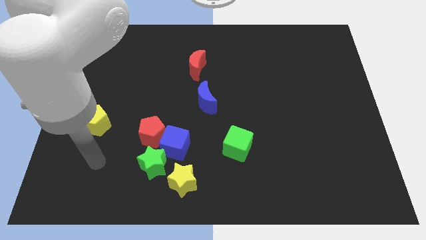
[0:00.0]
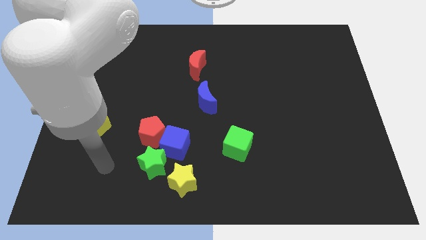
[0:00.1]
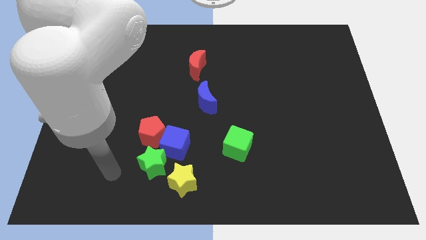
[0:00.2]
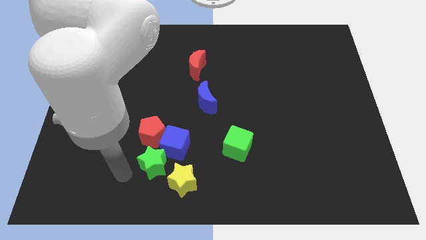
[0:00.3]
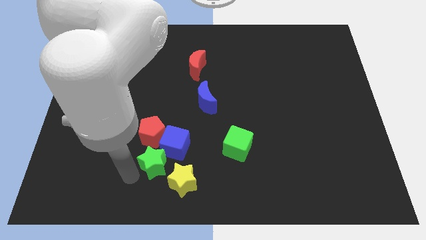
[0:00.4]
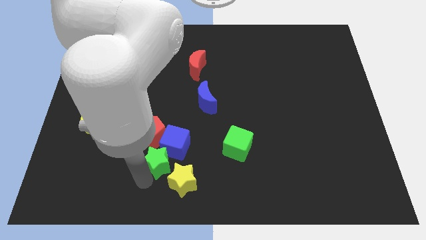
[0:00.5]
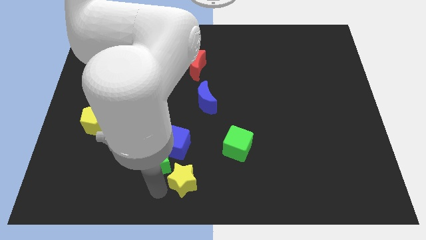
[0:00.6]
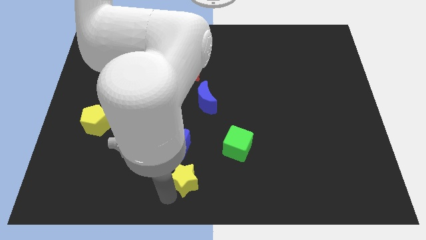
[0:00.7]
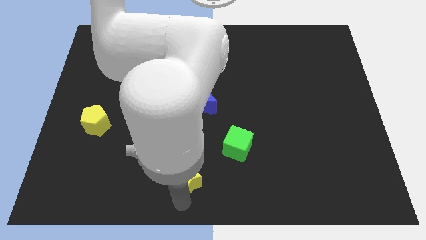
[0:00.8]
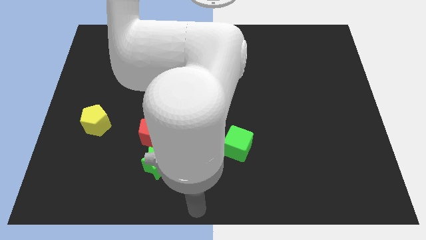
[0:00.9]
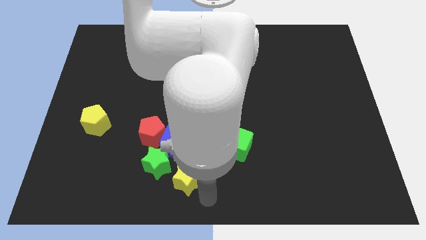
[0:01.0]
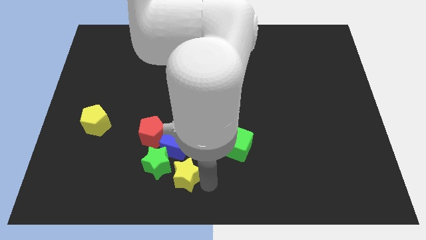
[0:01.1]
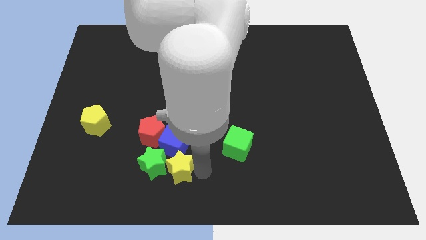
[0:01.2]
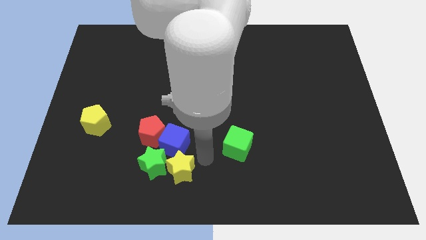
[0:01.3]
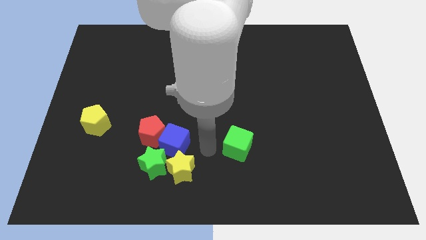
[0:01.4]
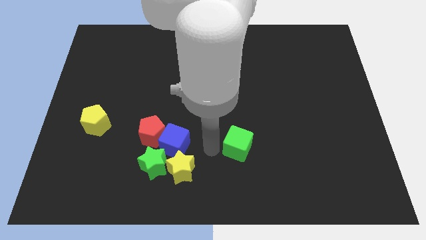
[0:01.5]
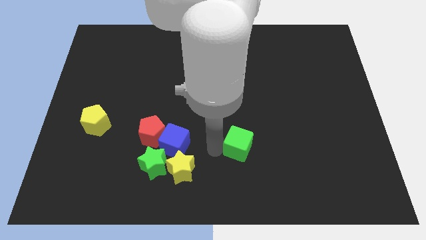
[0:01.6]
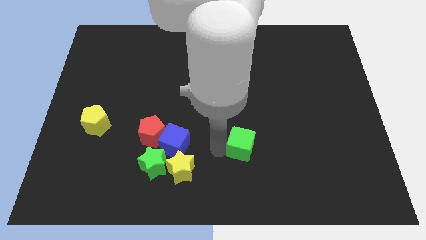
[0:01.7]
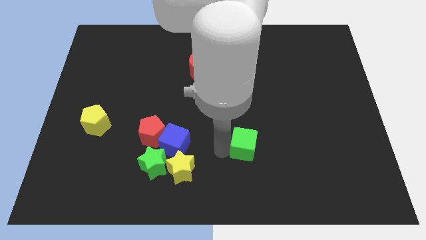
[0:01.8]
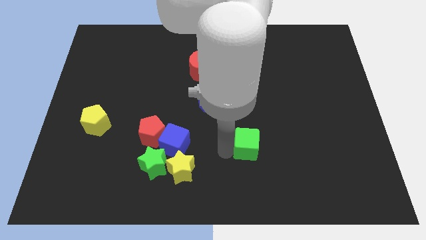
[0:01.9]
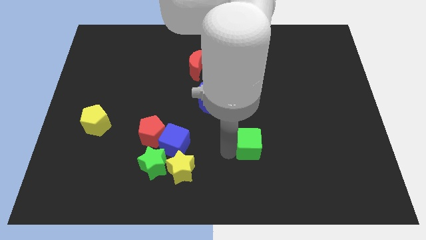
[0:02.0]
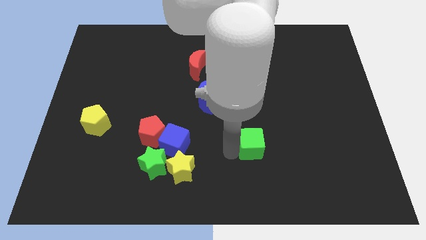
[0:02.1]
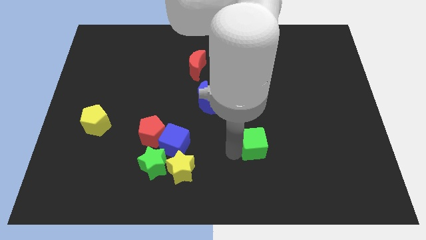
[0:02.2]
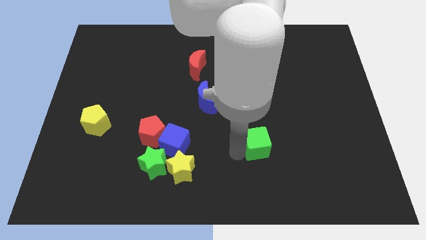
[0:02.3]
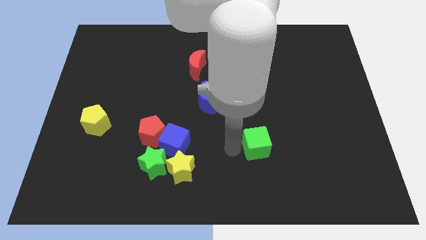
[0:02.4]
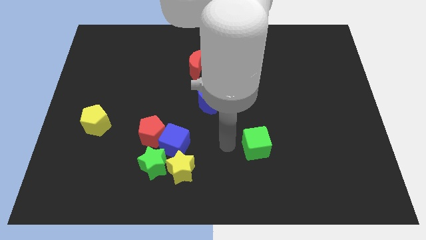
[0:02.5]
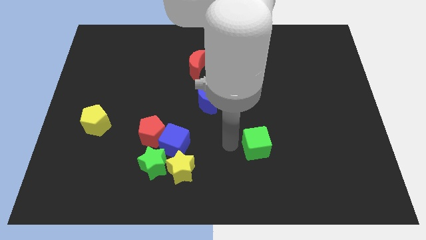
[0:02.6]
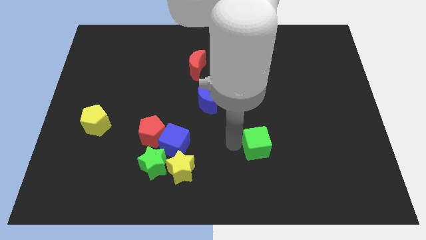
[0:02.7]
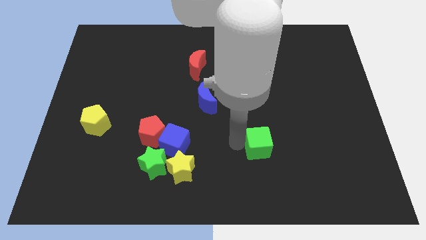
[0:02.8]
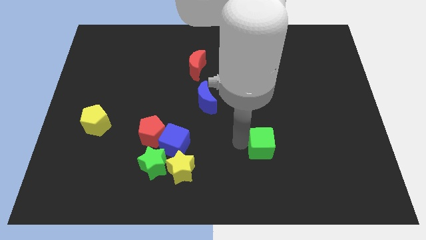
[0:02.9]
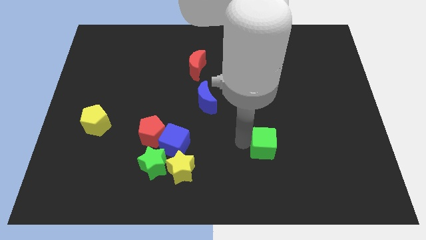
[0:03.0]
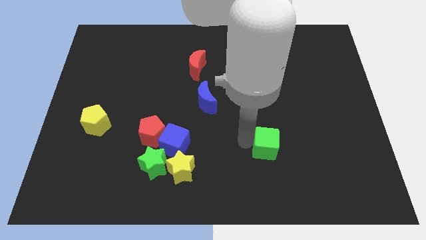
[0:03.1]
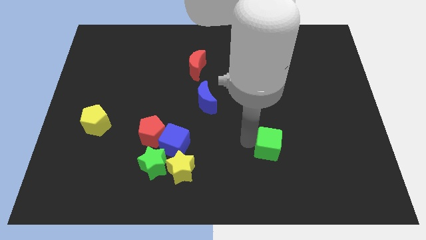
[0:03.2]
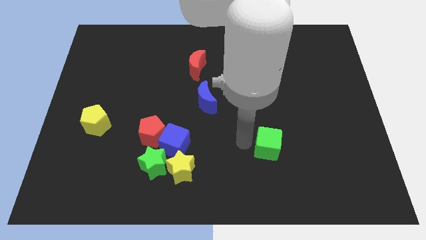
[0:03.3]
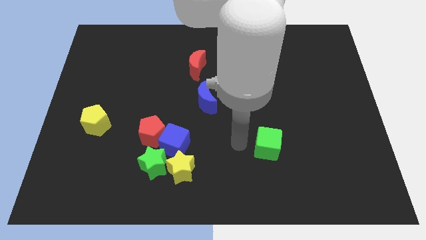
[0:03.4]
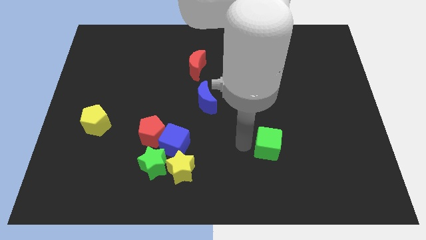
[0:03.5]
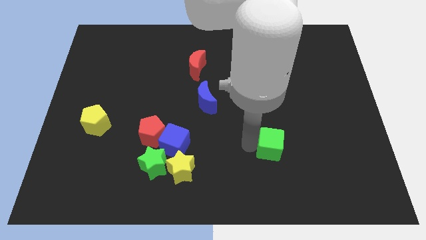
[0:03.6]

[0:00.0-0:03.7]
slightly slide the green cube right

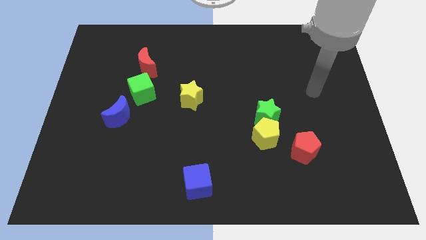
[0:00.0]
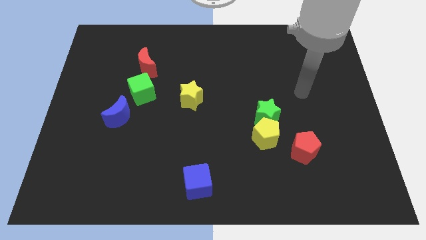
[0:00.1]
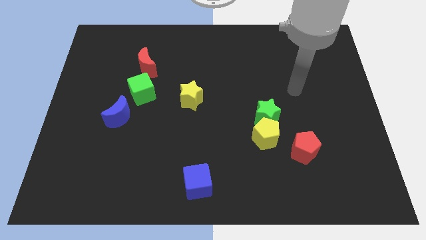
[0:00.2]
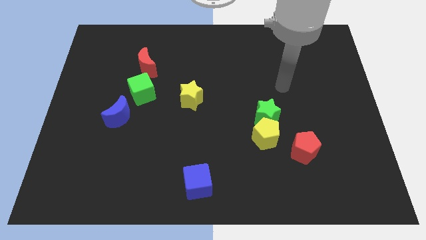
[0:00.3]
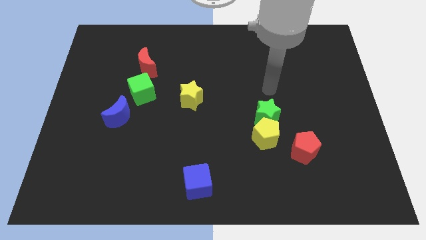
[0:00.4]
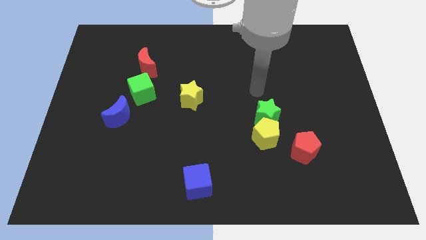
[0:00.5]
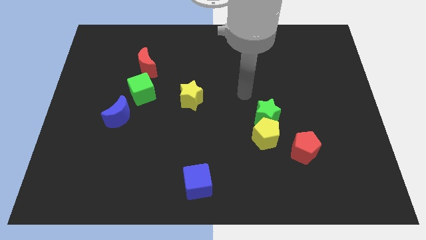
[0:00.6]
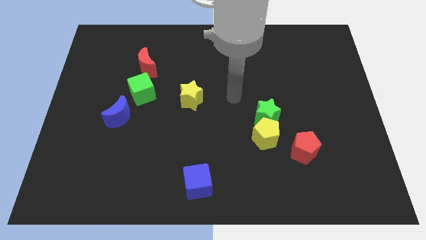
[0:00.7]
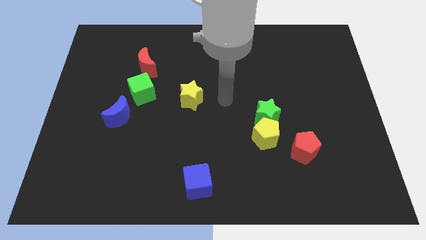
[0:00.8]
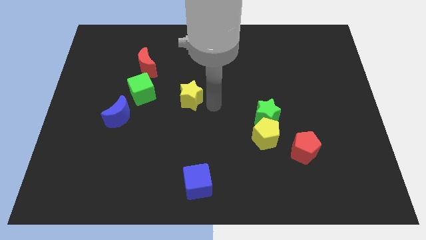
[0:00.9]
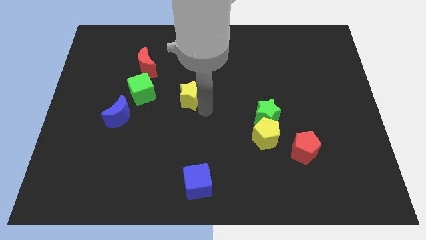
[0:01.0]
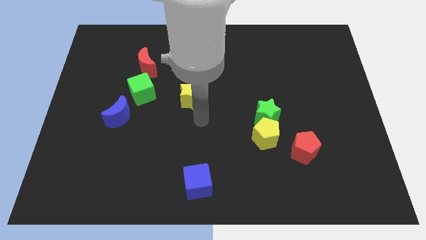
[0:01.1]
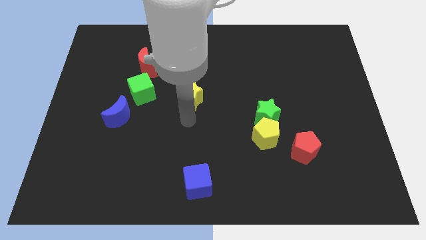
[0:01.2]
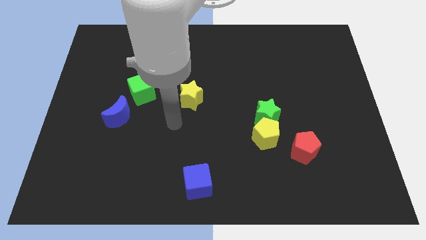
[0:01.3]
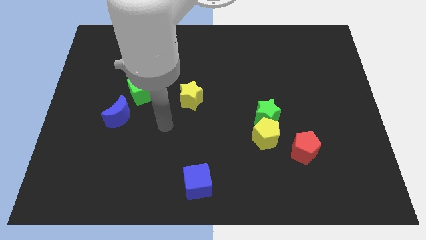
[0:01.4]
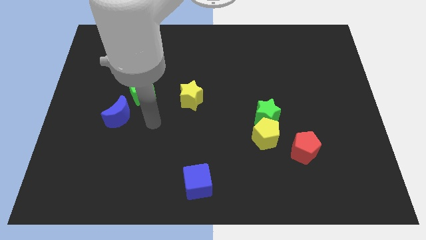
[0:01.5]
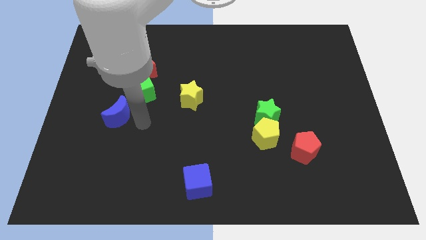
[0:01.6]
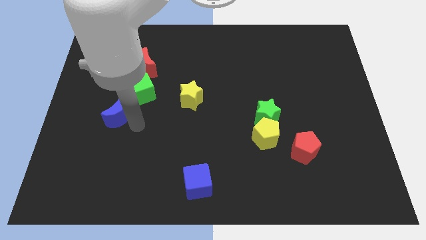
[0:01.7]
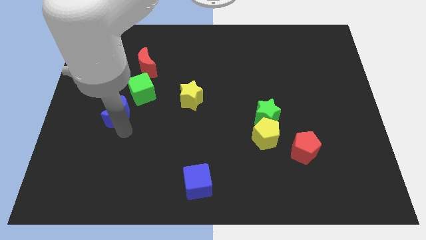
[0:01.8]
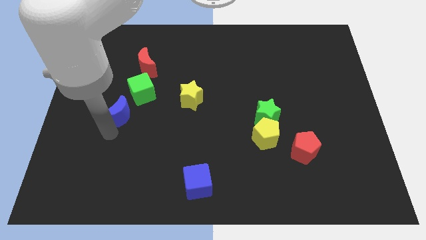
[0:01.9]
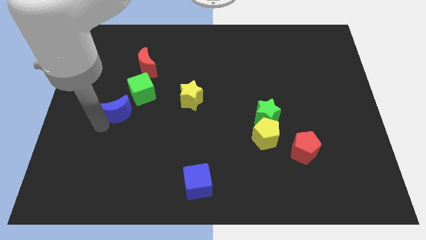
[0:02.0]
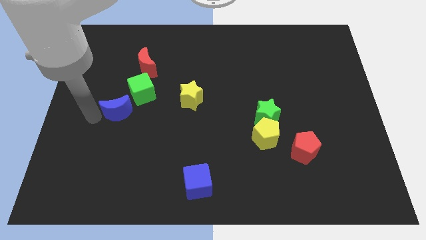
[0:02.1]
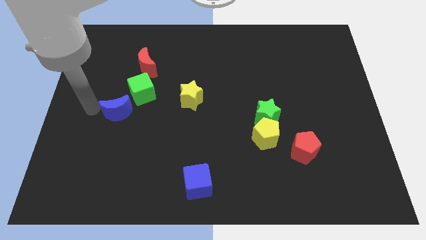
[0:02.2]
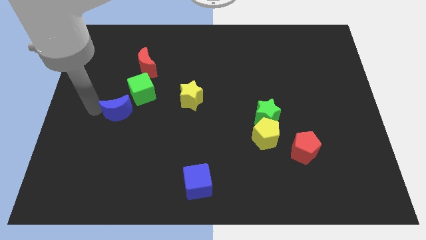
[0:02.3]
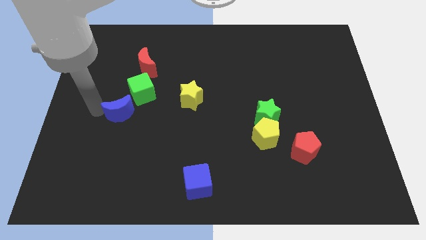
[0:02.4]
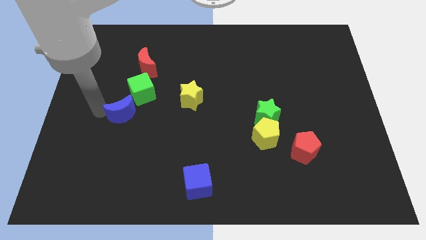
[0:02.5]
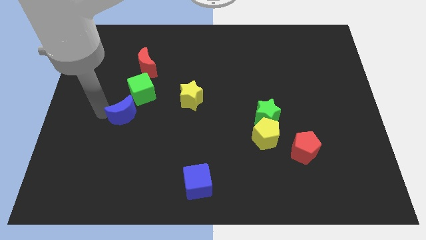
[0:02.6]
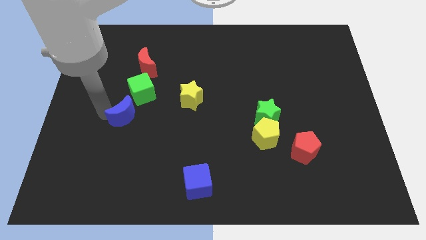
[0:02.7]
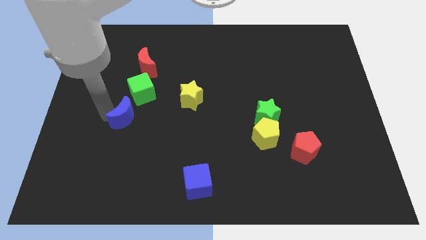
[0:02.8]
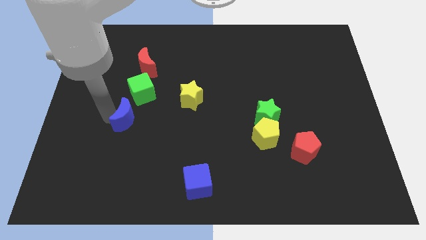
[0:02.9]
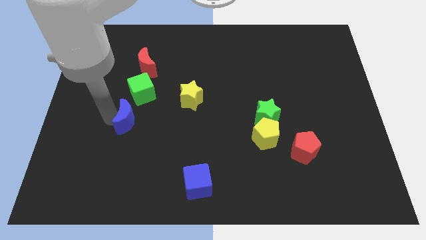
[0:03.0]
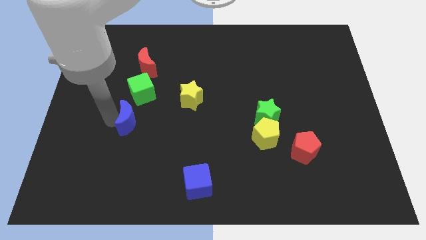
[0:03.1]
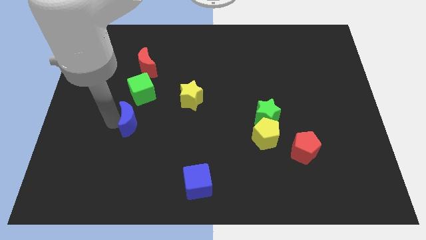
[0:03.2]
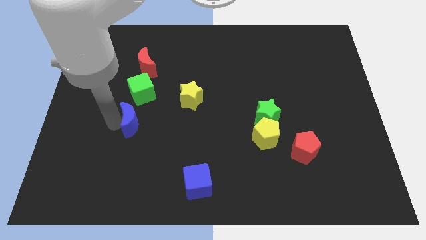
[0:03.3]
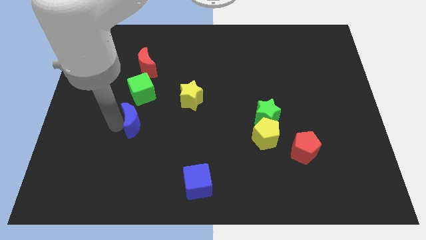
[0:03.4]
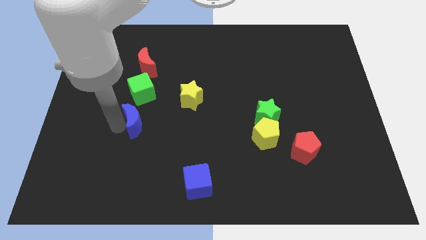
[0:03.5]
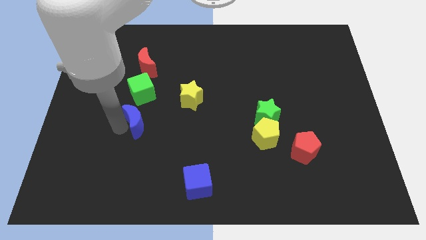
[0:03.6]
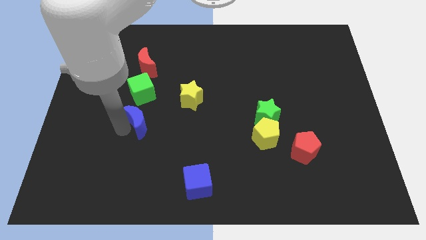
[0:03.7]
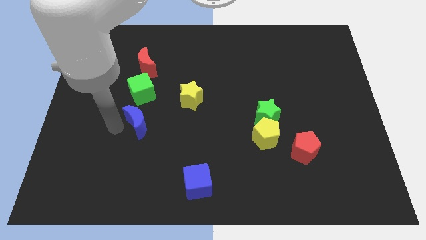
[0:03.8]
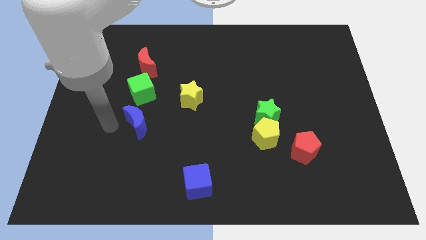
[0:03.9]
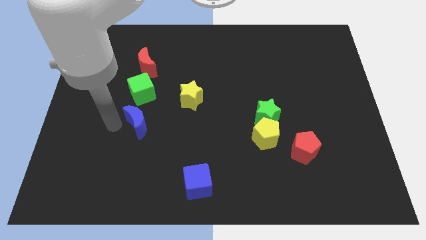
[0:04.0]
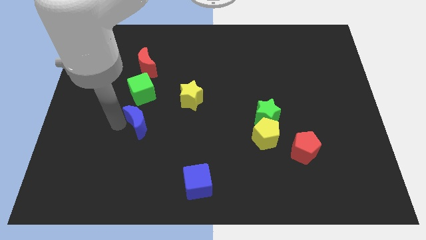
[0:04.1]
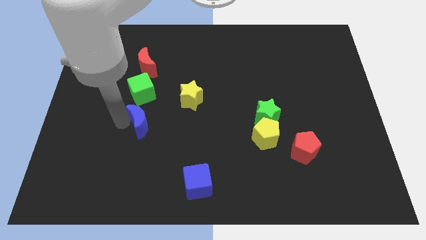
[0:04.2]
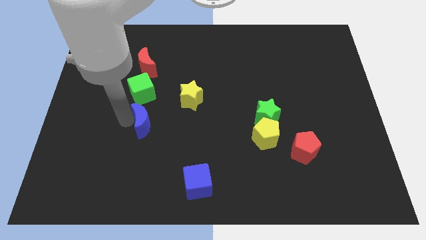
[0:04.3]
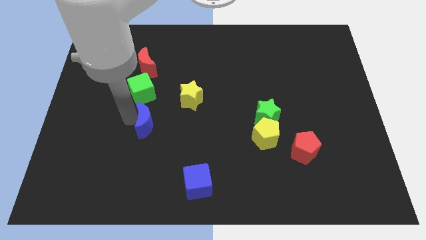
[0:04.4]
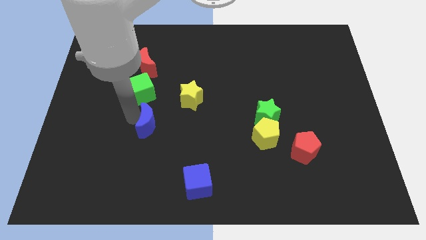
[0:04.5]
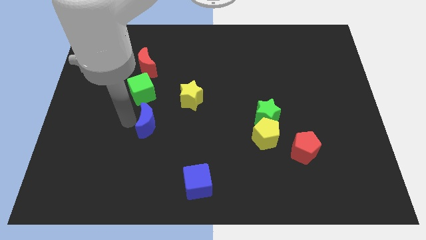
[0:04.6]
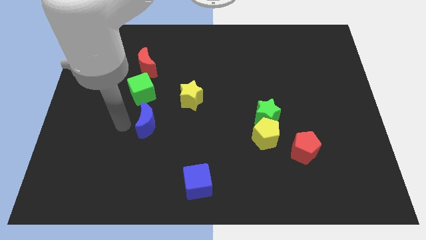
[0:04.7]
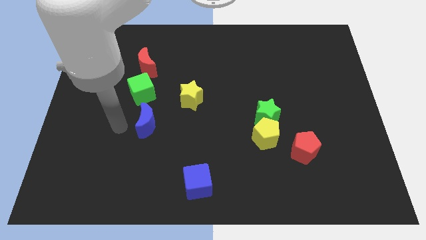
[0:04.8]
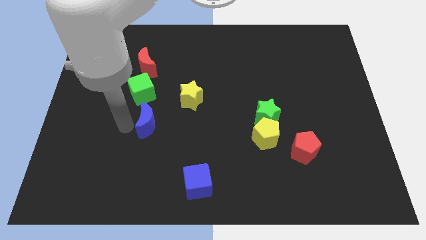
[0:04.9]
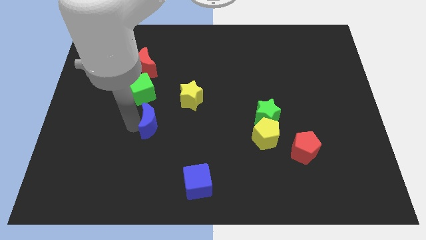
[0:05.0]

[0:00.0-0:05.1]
slightly push the blue moon to the right
